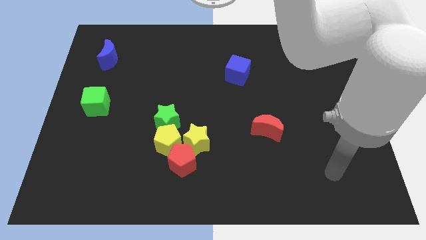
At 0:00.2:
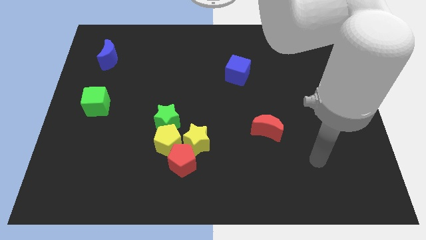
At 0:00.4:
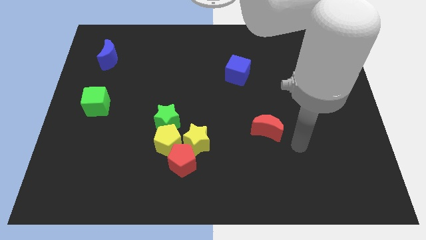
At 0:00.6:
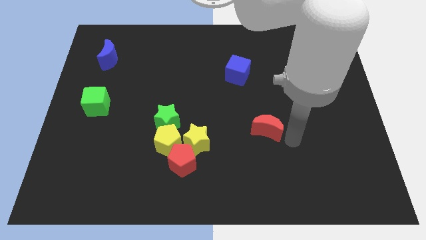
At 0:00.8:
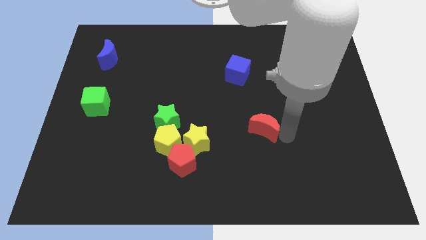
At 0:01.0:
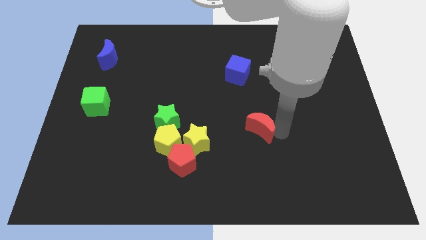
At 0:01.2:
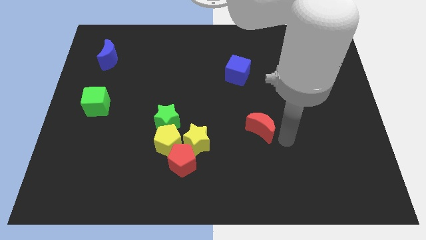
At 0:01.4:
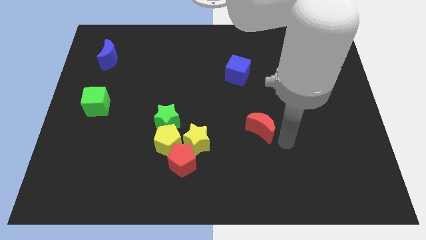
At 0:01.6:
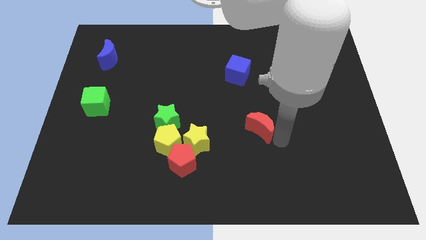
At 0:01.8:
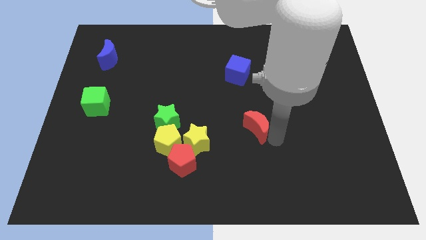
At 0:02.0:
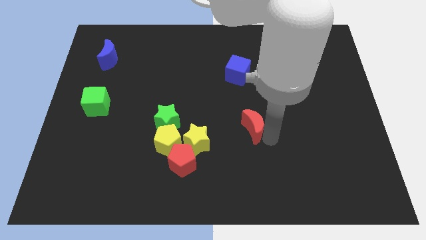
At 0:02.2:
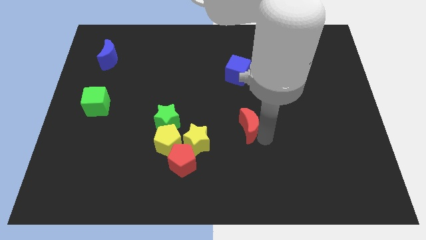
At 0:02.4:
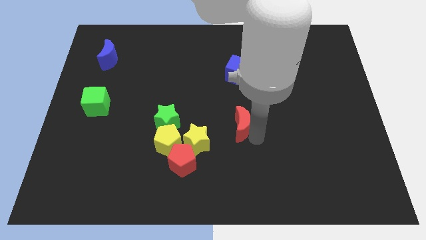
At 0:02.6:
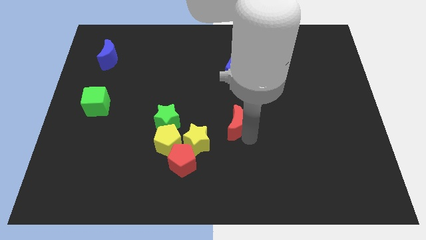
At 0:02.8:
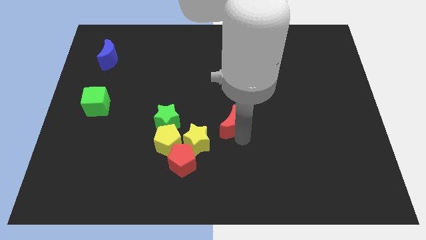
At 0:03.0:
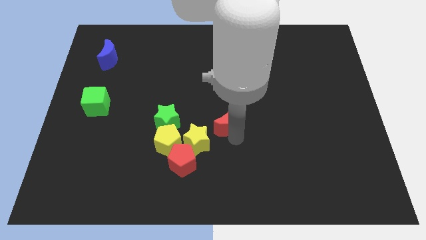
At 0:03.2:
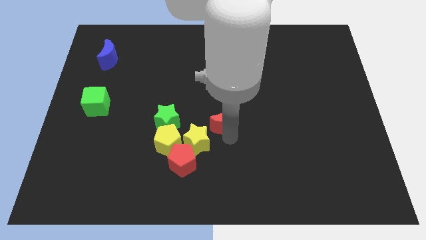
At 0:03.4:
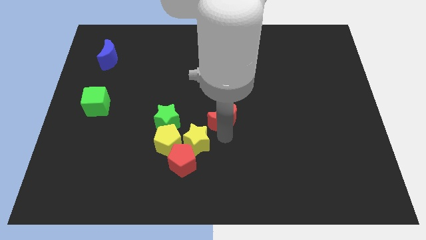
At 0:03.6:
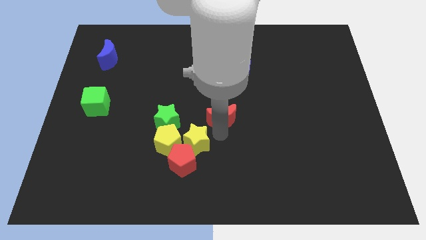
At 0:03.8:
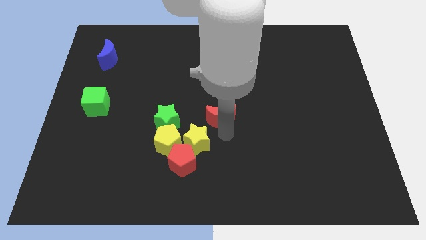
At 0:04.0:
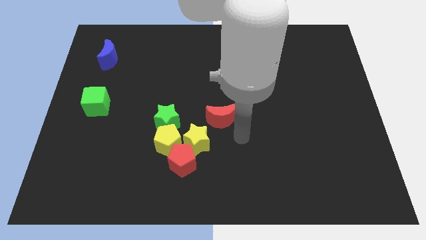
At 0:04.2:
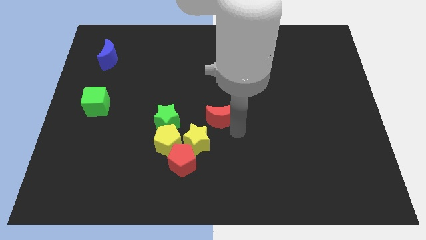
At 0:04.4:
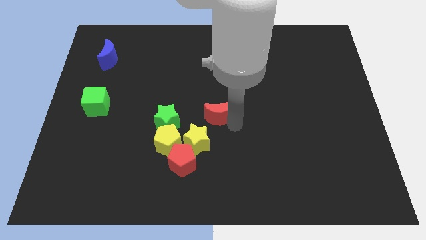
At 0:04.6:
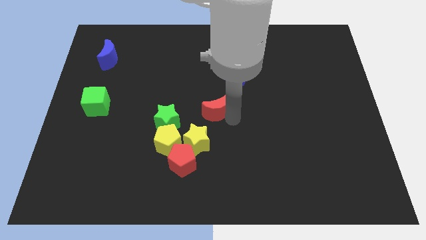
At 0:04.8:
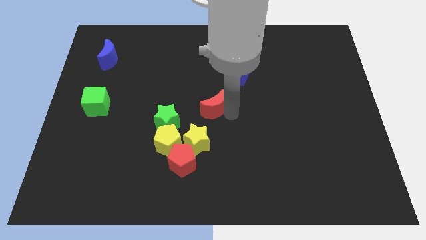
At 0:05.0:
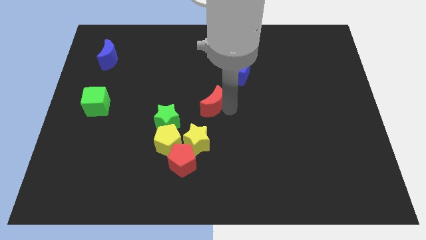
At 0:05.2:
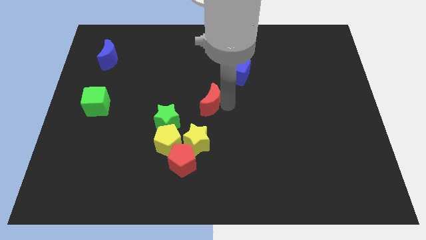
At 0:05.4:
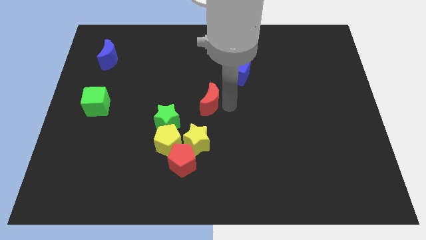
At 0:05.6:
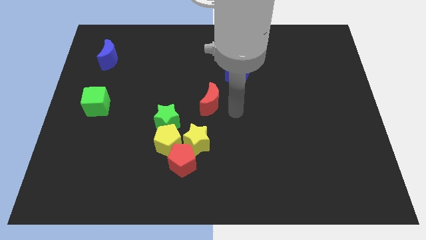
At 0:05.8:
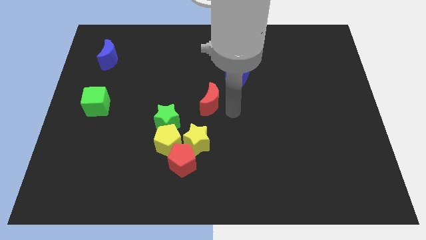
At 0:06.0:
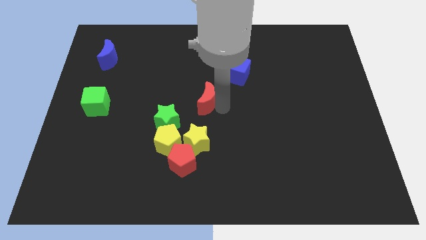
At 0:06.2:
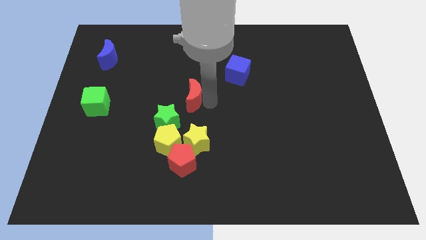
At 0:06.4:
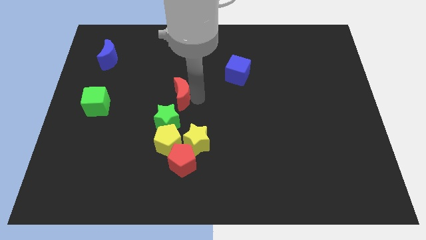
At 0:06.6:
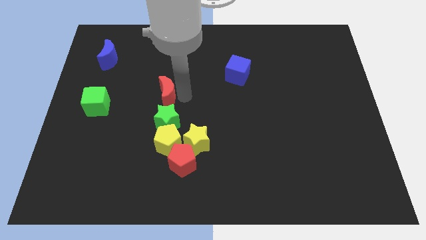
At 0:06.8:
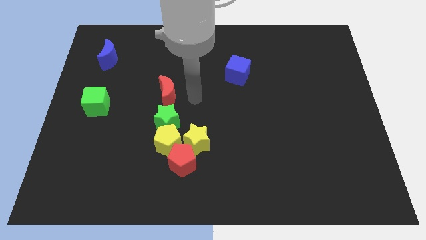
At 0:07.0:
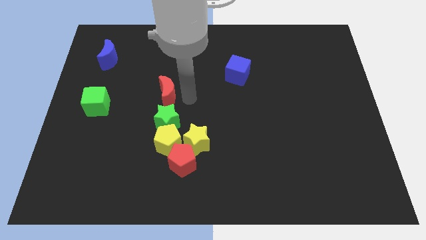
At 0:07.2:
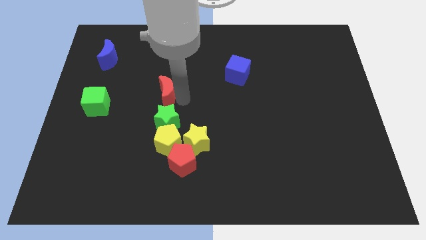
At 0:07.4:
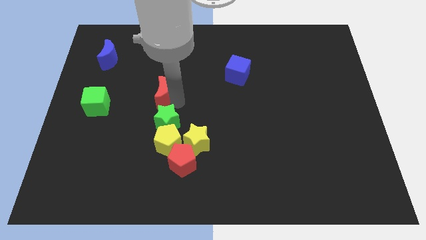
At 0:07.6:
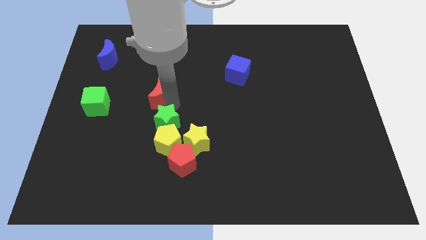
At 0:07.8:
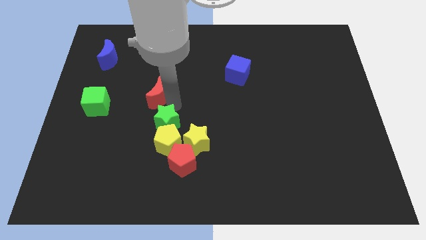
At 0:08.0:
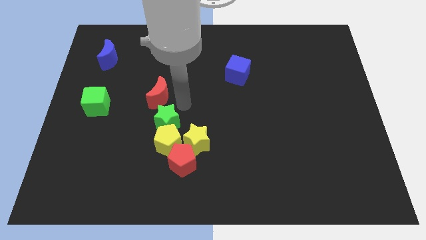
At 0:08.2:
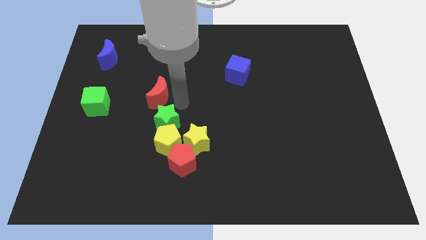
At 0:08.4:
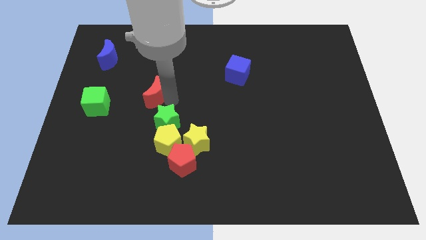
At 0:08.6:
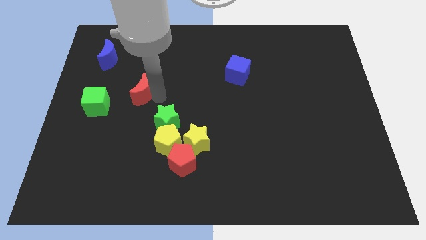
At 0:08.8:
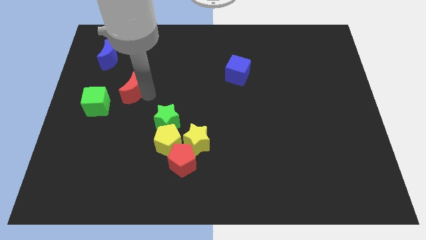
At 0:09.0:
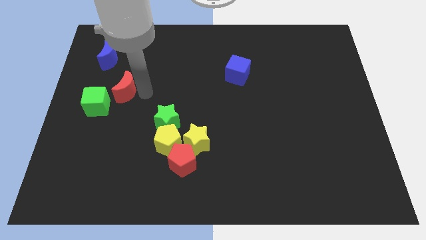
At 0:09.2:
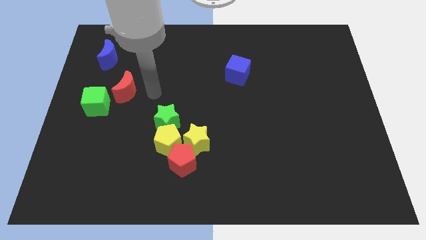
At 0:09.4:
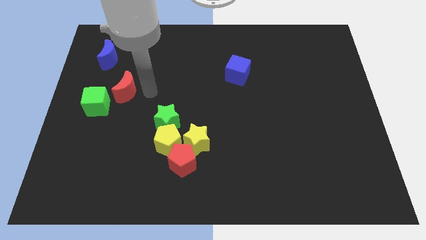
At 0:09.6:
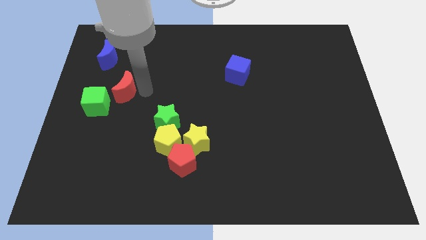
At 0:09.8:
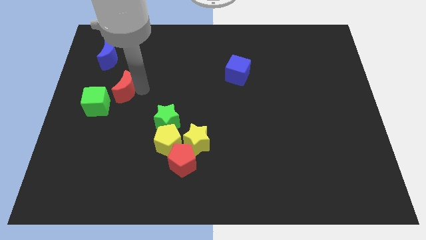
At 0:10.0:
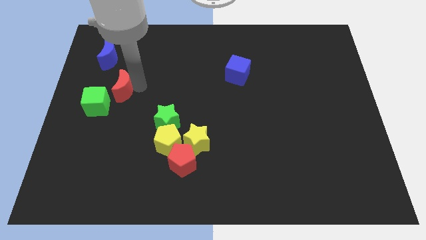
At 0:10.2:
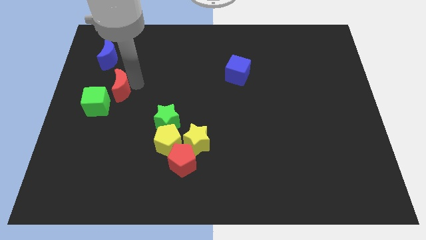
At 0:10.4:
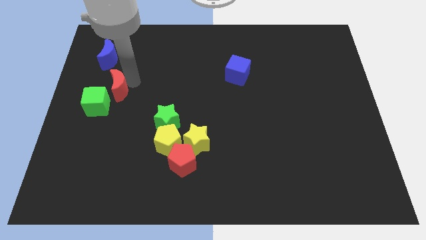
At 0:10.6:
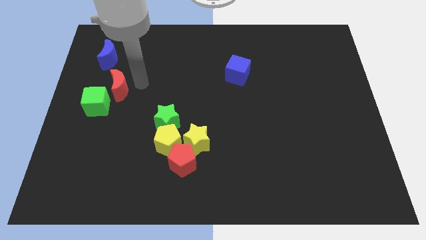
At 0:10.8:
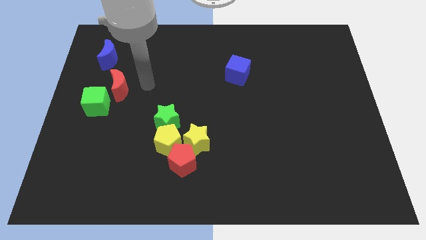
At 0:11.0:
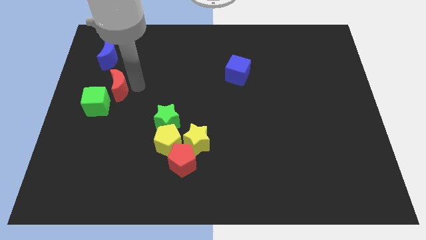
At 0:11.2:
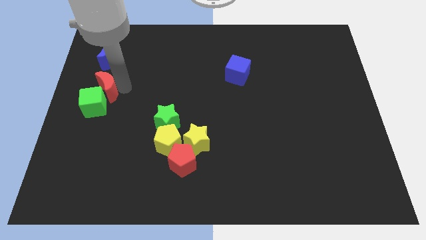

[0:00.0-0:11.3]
slide the red moon to the left side of the board

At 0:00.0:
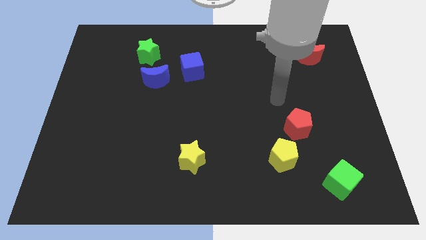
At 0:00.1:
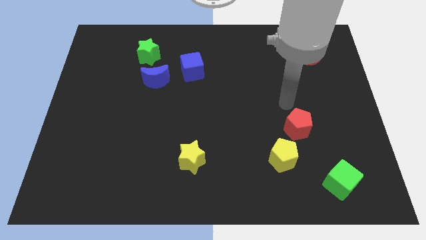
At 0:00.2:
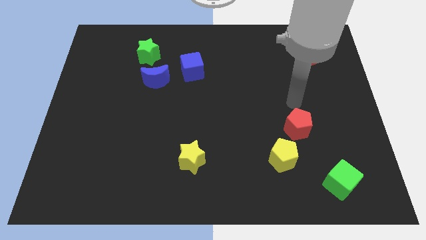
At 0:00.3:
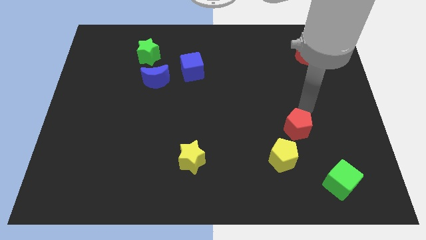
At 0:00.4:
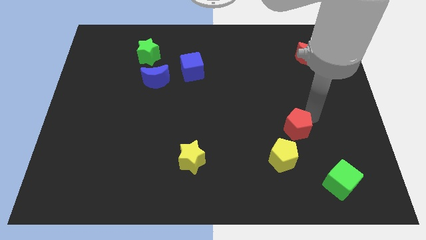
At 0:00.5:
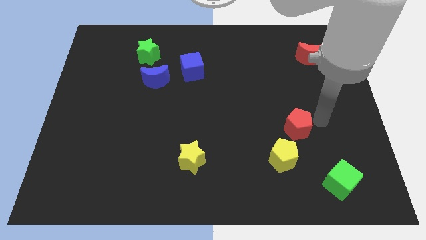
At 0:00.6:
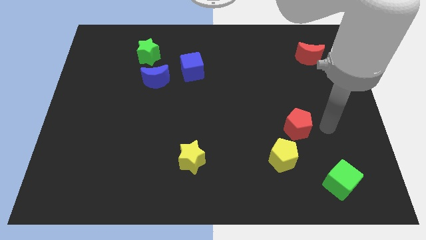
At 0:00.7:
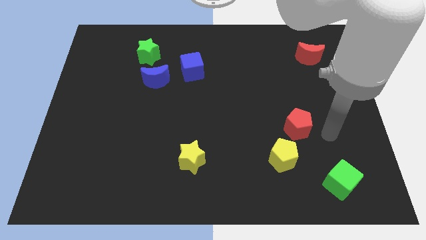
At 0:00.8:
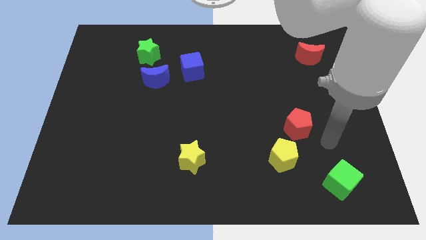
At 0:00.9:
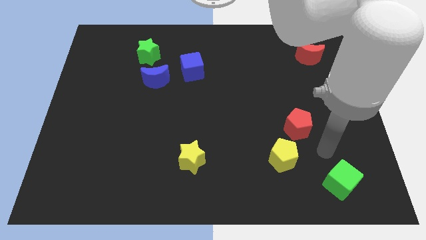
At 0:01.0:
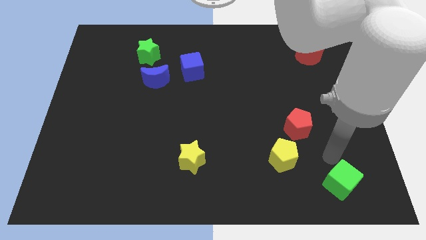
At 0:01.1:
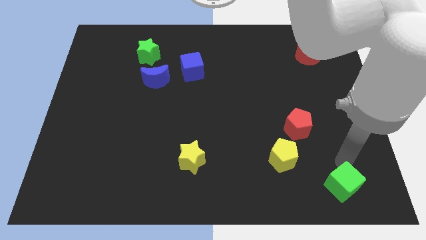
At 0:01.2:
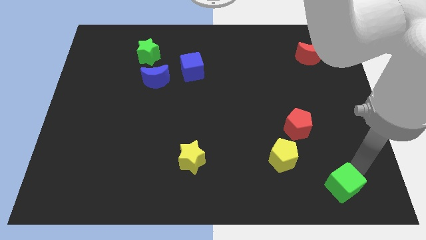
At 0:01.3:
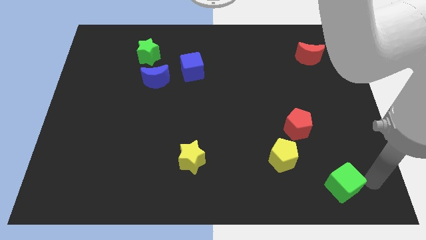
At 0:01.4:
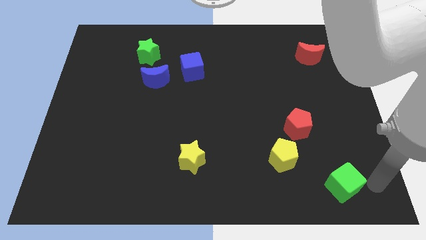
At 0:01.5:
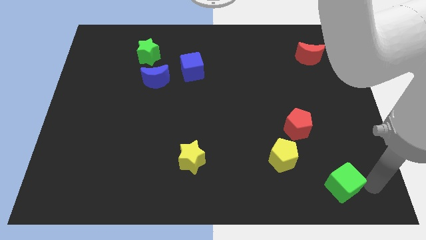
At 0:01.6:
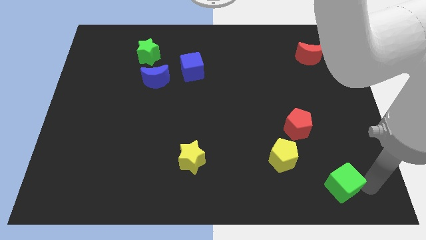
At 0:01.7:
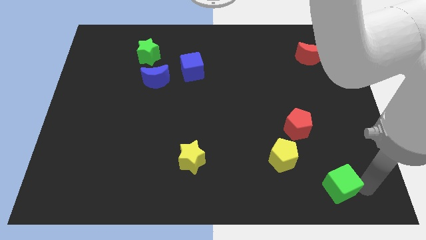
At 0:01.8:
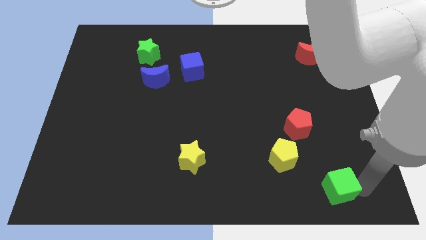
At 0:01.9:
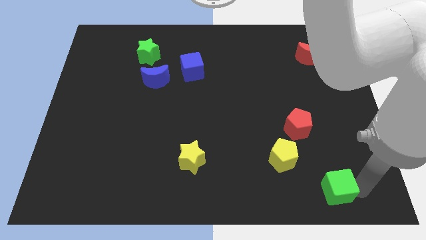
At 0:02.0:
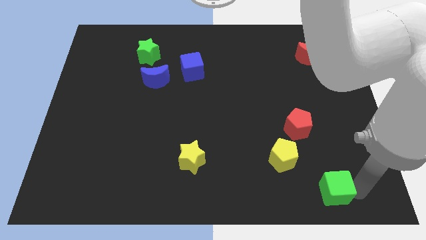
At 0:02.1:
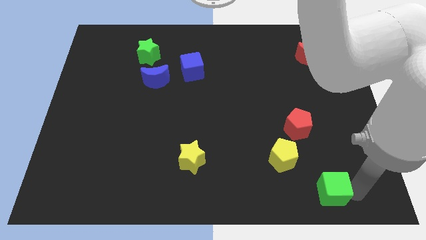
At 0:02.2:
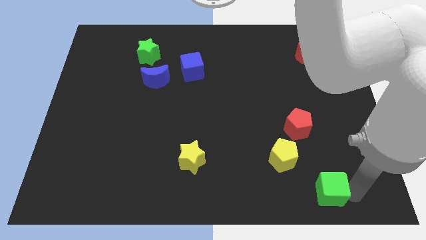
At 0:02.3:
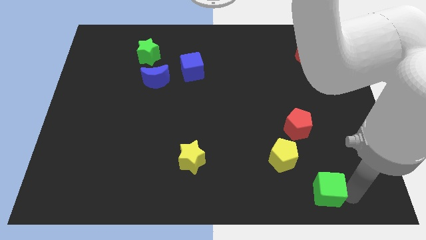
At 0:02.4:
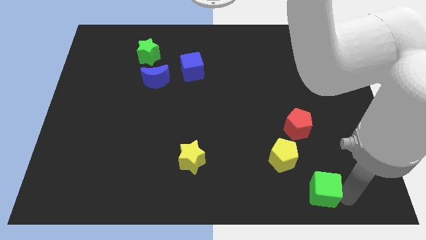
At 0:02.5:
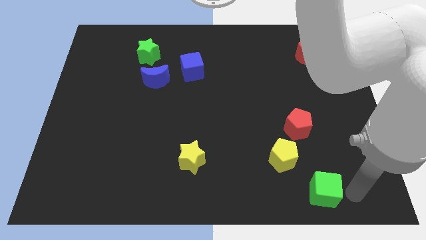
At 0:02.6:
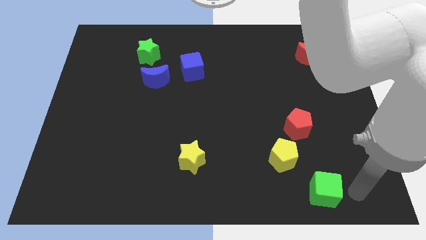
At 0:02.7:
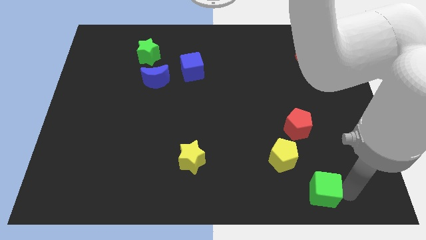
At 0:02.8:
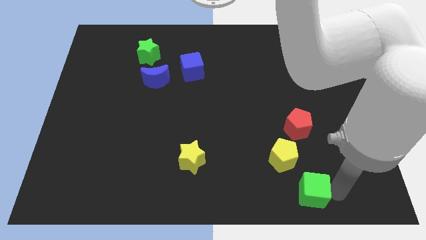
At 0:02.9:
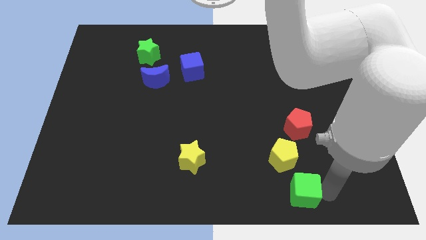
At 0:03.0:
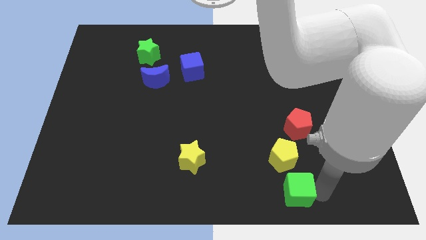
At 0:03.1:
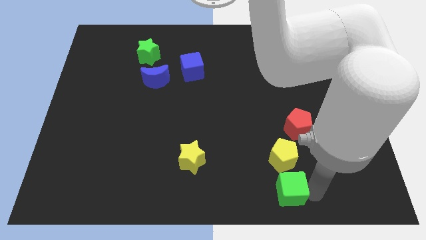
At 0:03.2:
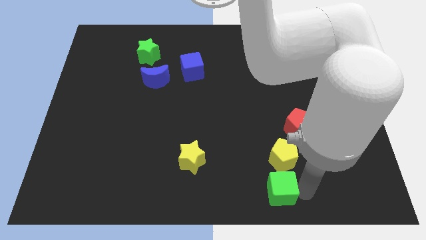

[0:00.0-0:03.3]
move the green cube to the bottom side
